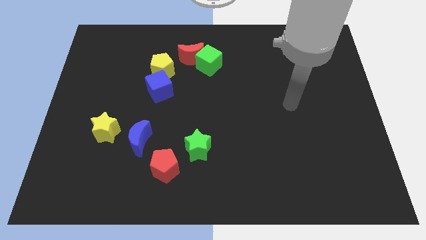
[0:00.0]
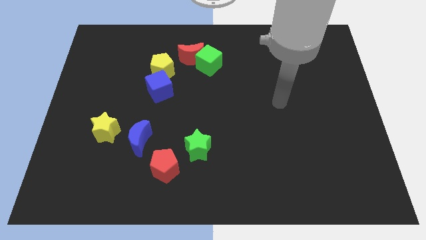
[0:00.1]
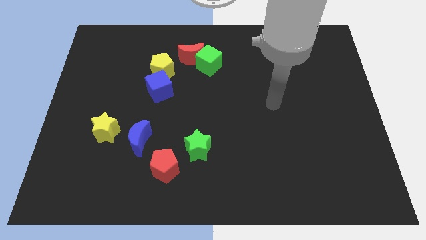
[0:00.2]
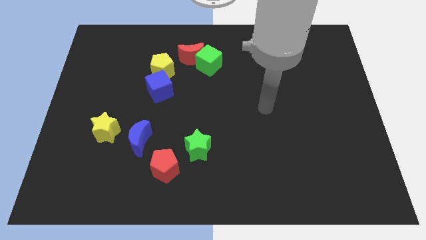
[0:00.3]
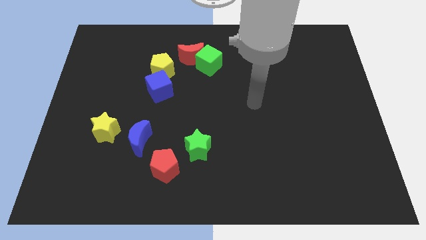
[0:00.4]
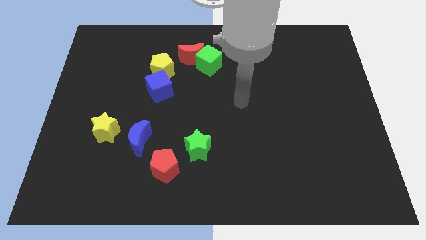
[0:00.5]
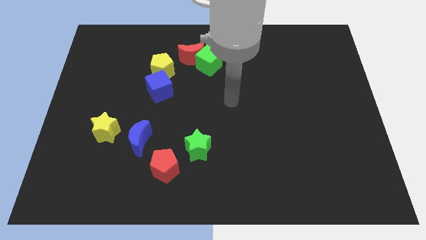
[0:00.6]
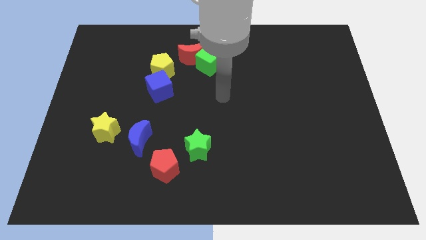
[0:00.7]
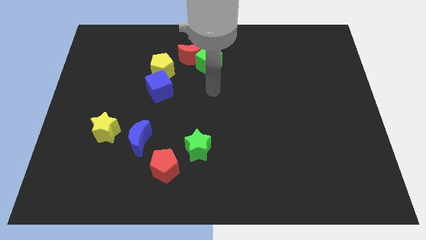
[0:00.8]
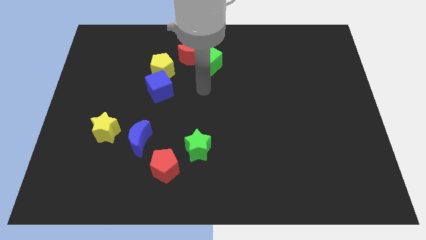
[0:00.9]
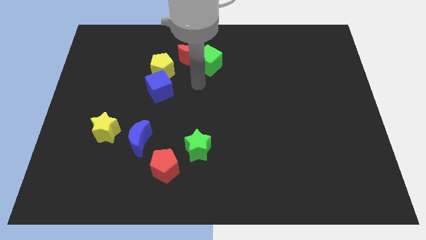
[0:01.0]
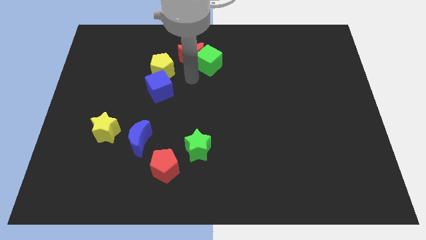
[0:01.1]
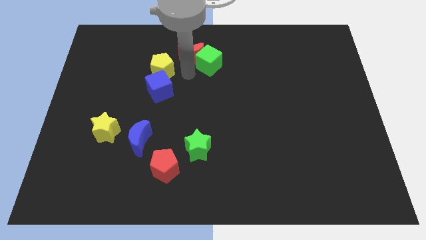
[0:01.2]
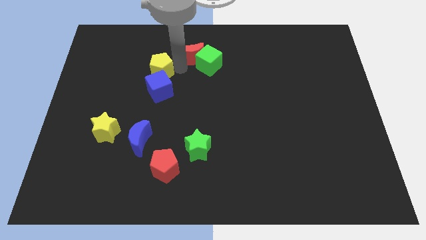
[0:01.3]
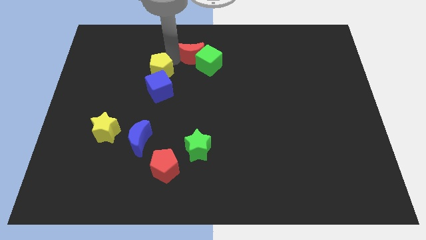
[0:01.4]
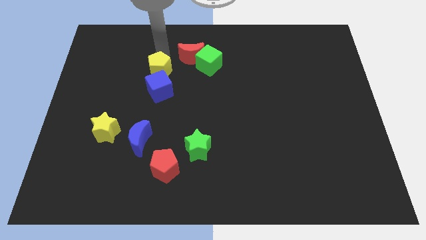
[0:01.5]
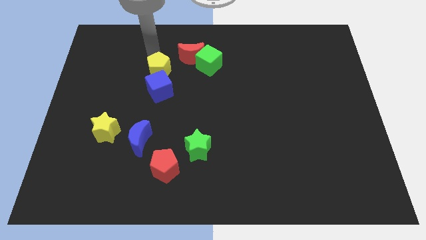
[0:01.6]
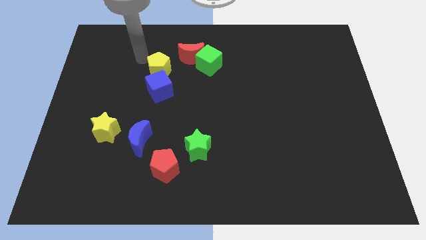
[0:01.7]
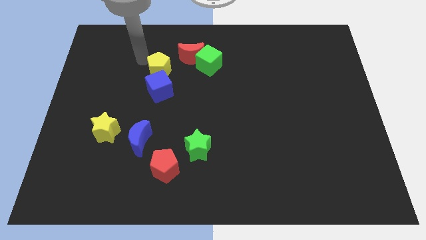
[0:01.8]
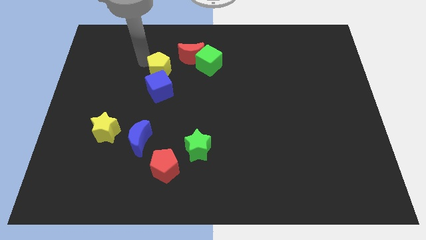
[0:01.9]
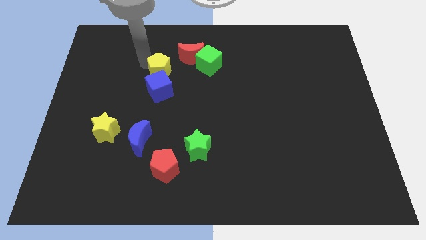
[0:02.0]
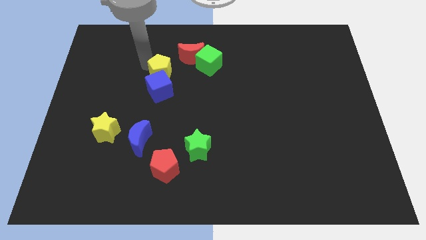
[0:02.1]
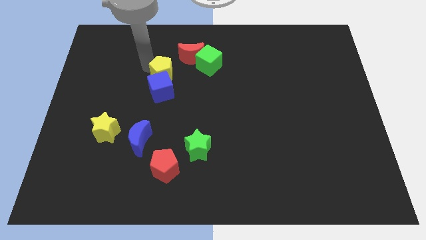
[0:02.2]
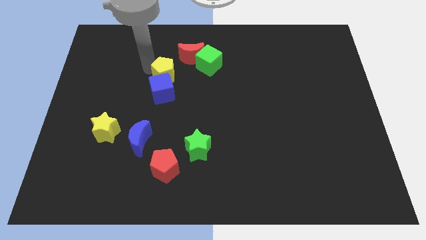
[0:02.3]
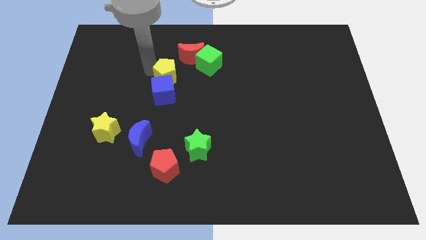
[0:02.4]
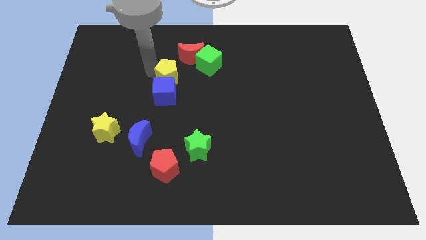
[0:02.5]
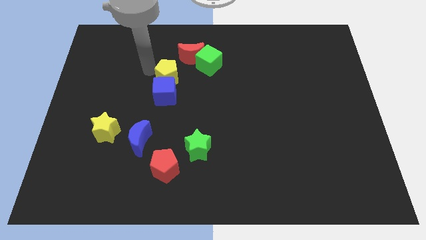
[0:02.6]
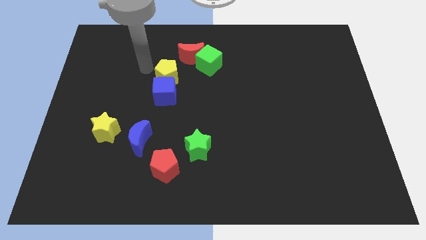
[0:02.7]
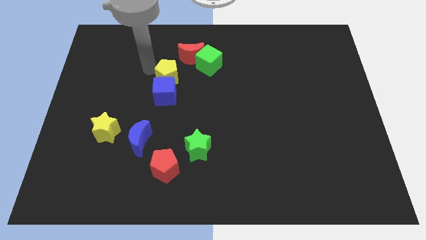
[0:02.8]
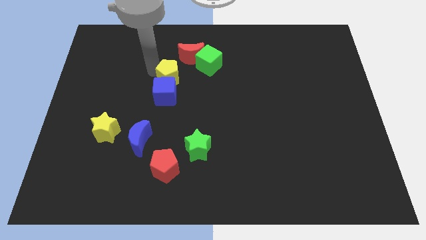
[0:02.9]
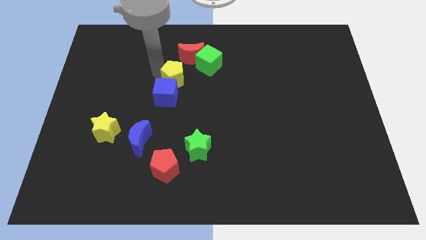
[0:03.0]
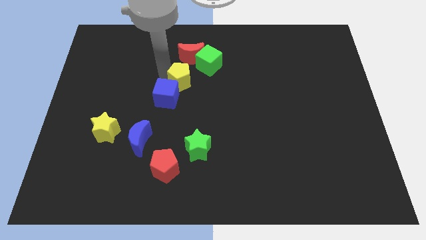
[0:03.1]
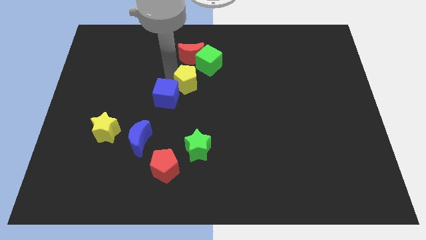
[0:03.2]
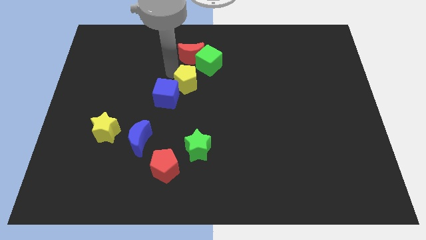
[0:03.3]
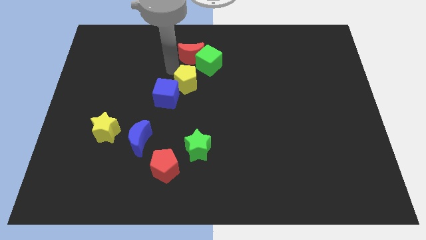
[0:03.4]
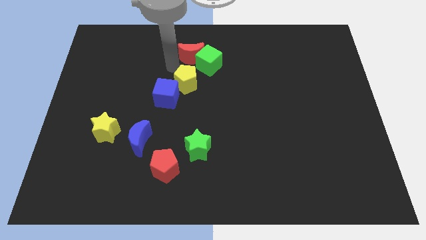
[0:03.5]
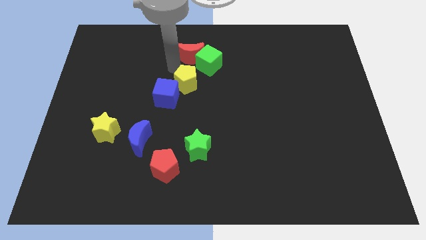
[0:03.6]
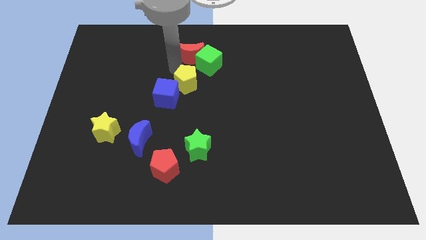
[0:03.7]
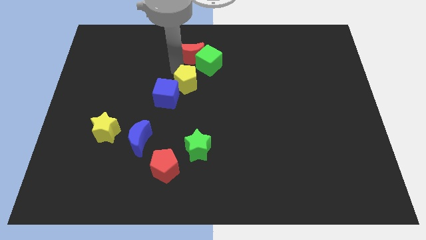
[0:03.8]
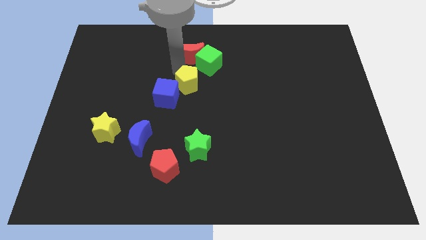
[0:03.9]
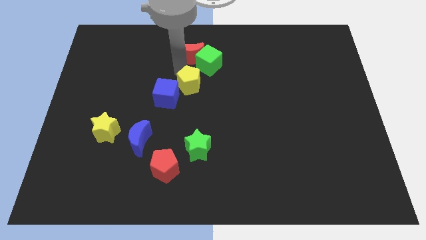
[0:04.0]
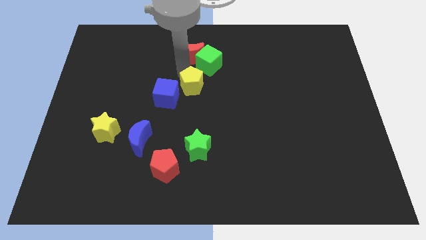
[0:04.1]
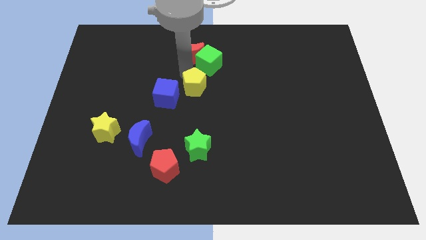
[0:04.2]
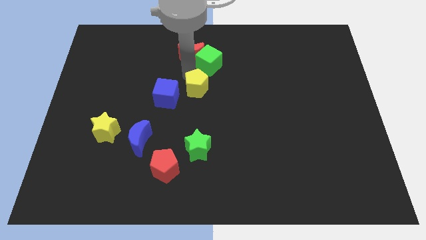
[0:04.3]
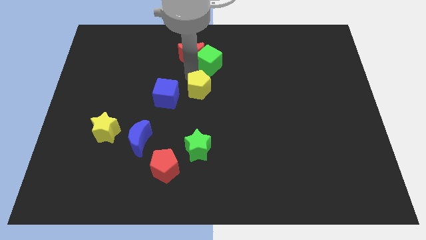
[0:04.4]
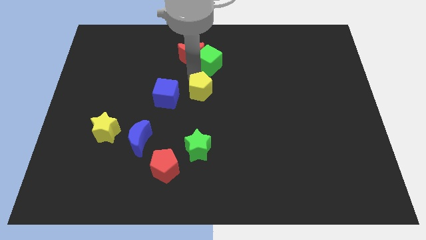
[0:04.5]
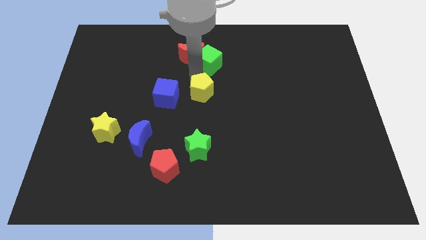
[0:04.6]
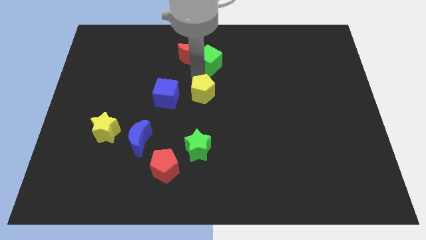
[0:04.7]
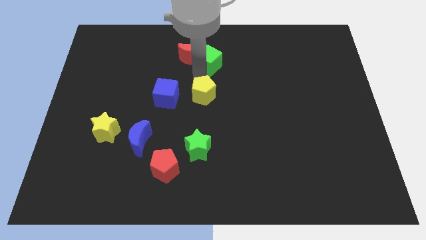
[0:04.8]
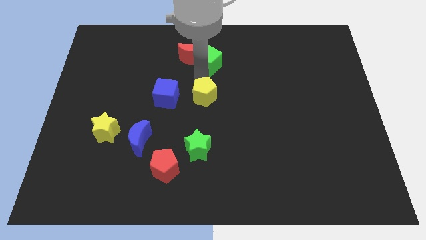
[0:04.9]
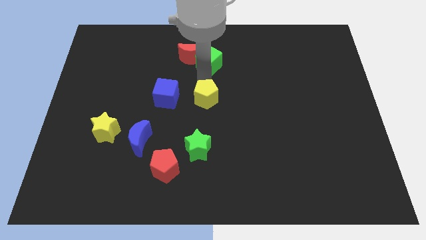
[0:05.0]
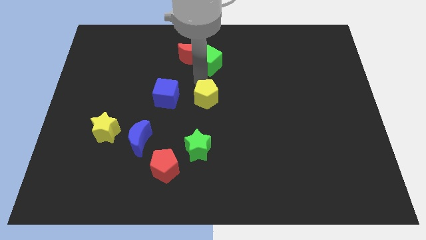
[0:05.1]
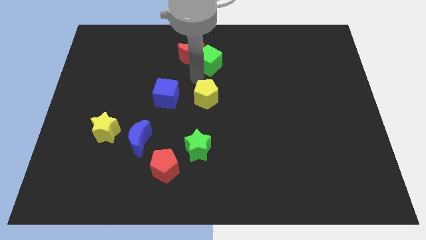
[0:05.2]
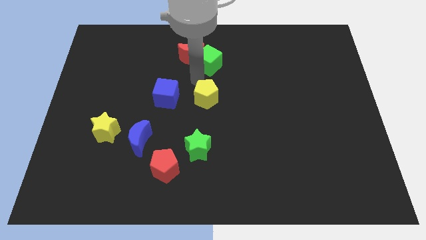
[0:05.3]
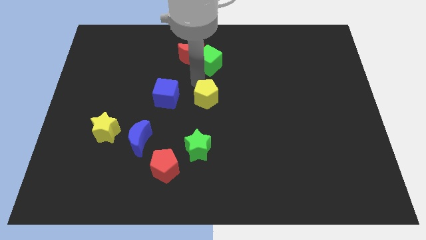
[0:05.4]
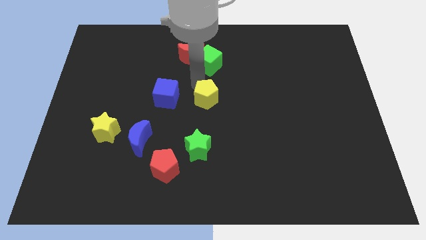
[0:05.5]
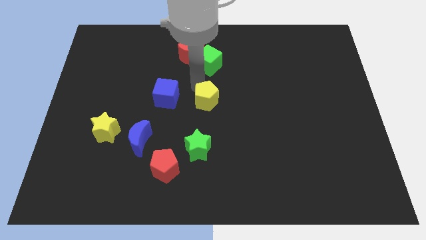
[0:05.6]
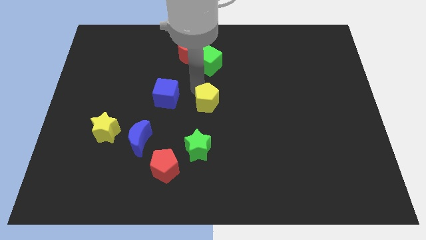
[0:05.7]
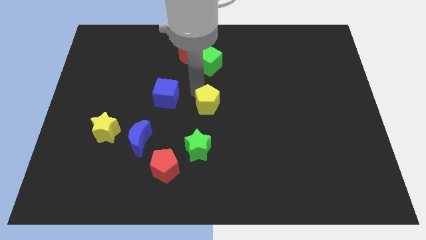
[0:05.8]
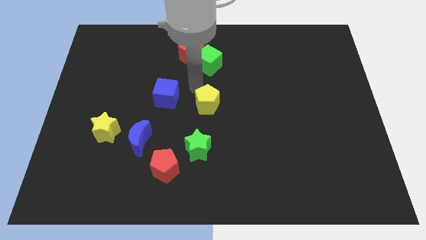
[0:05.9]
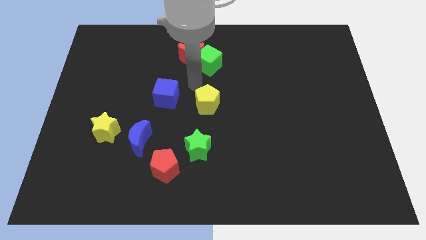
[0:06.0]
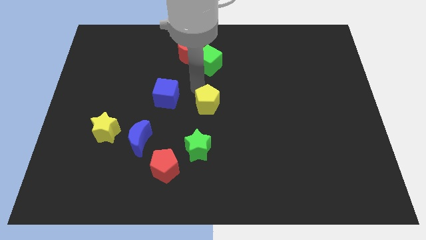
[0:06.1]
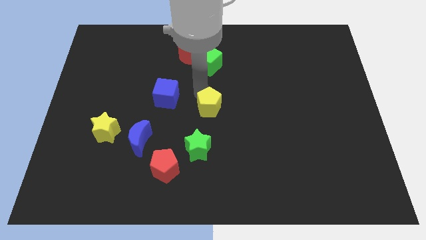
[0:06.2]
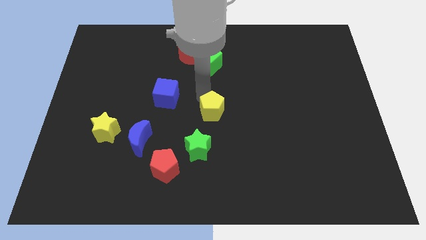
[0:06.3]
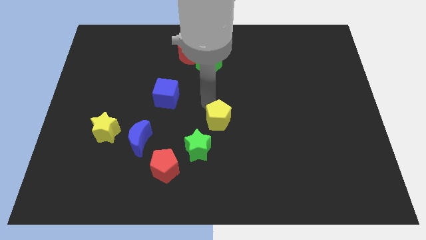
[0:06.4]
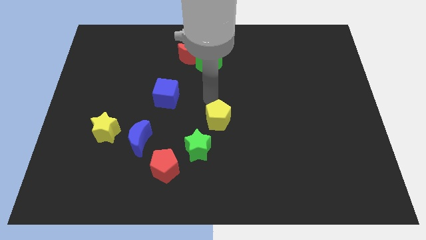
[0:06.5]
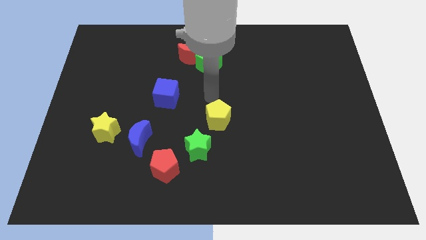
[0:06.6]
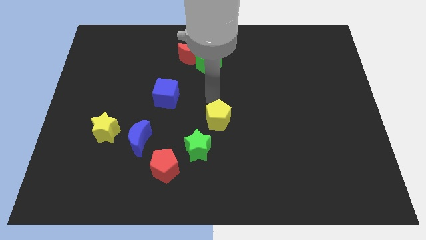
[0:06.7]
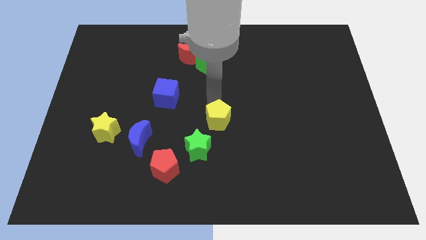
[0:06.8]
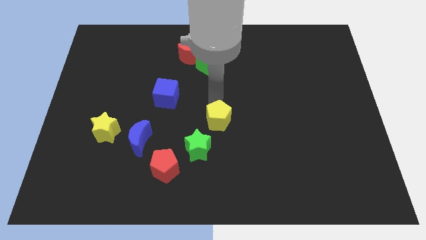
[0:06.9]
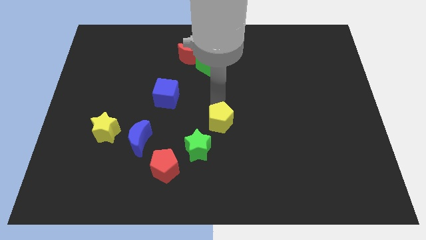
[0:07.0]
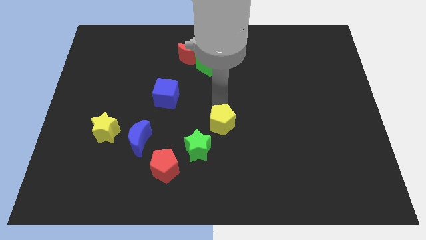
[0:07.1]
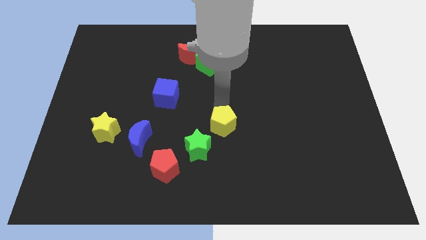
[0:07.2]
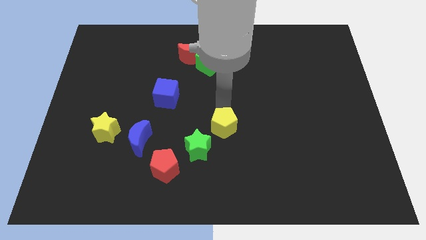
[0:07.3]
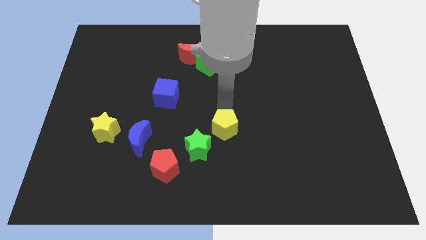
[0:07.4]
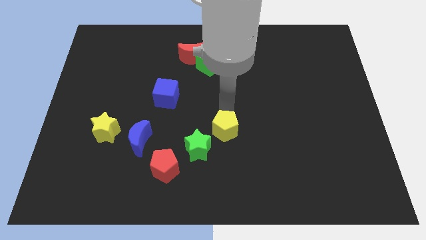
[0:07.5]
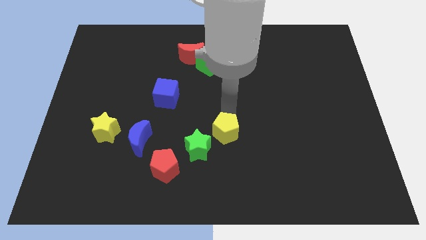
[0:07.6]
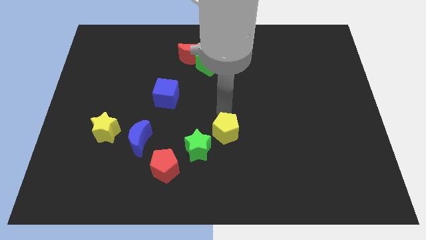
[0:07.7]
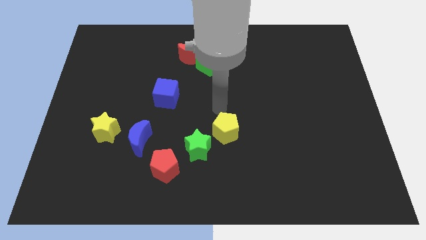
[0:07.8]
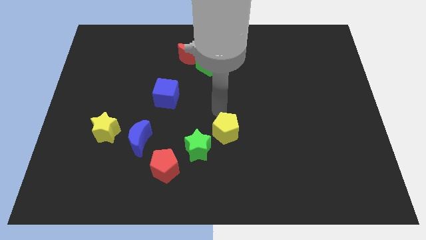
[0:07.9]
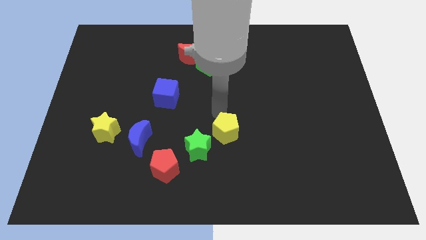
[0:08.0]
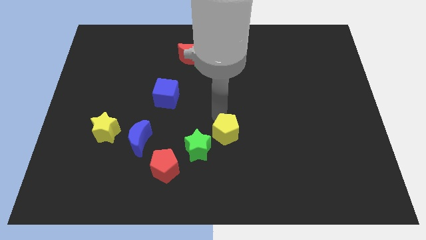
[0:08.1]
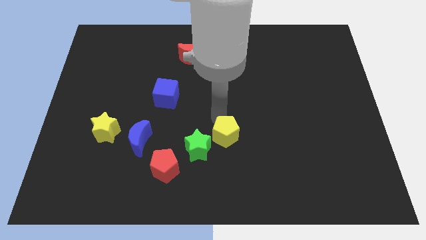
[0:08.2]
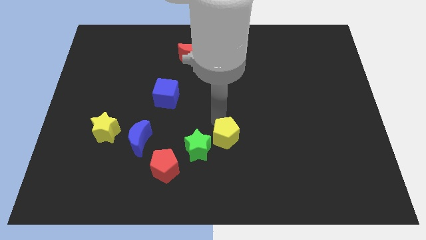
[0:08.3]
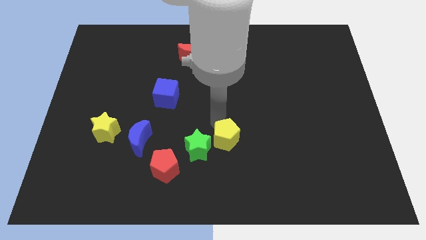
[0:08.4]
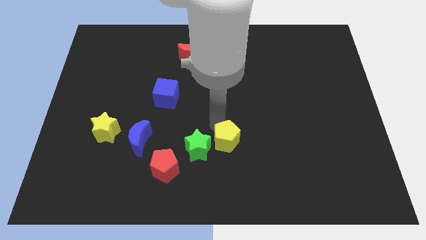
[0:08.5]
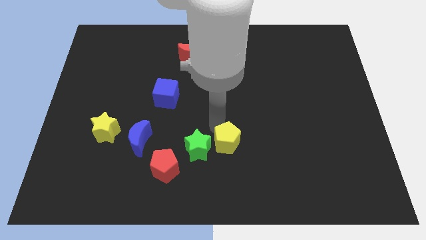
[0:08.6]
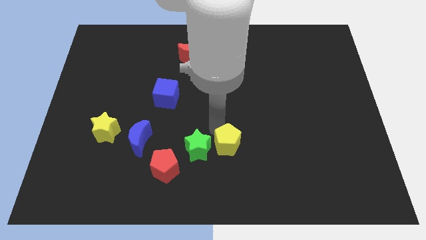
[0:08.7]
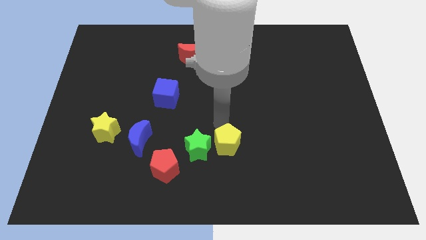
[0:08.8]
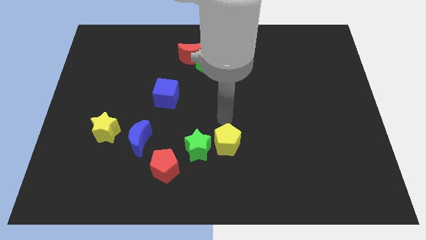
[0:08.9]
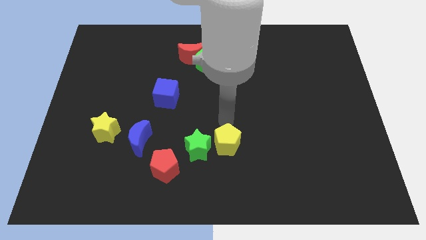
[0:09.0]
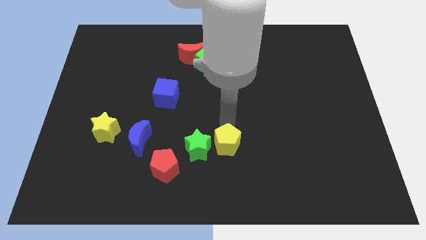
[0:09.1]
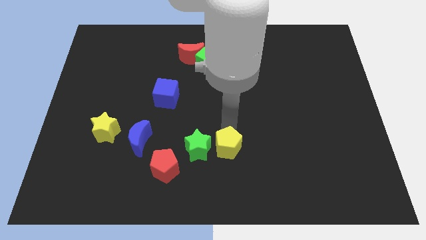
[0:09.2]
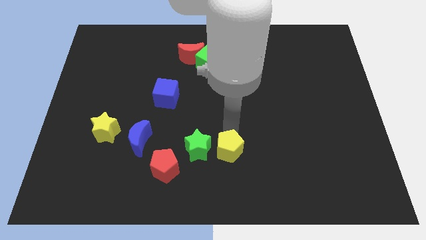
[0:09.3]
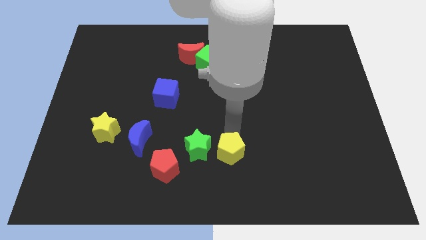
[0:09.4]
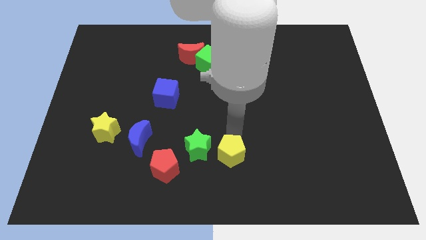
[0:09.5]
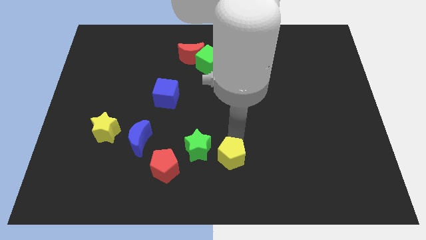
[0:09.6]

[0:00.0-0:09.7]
put the yellow pentagon to the bottom side
